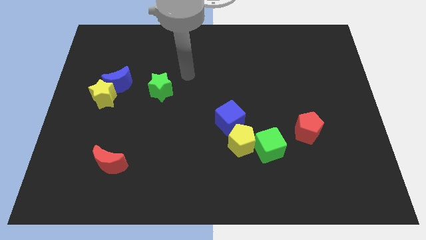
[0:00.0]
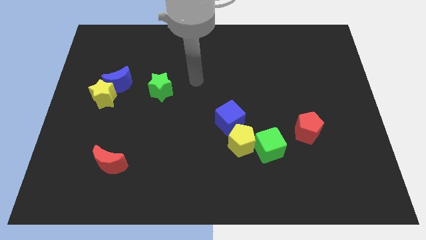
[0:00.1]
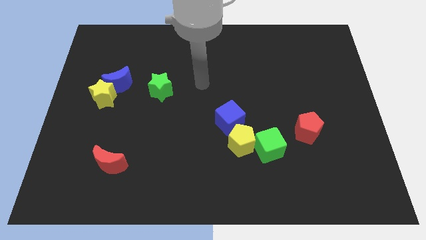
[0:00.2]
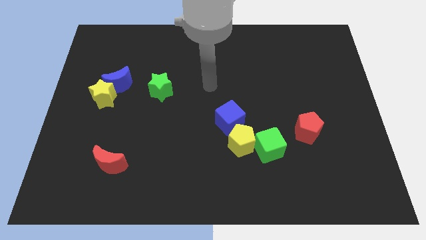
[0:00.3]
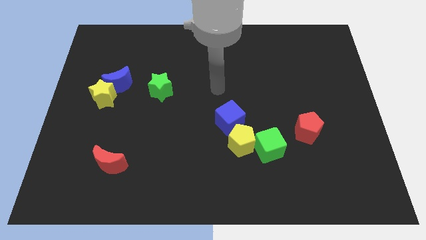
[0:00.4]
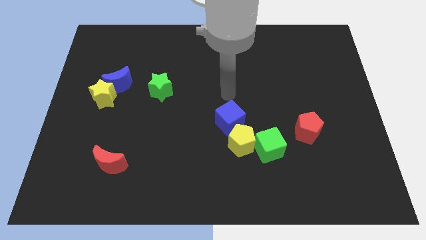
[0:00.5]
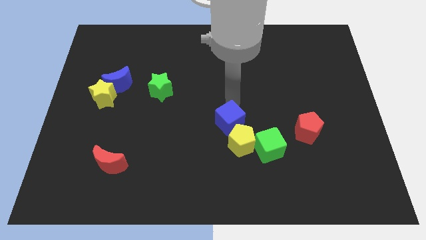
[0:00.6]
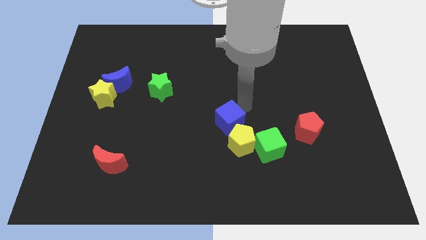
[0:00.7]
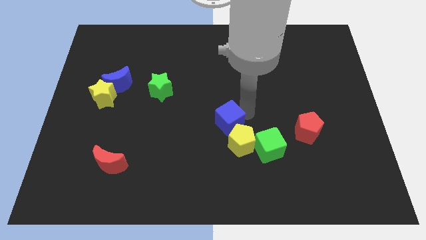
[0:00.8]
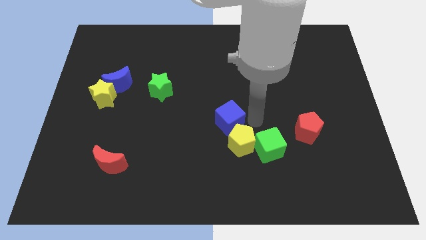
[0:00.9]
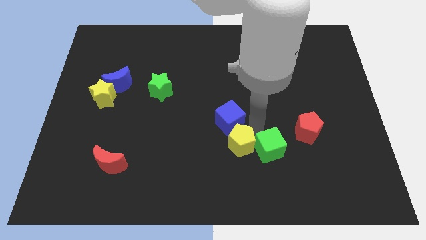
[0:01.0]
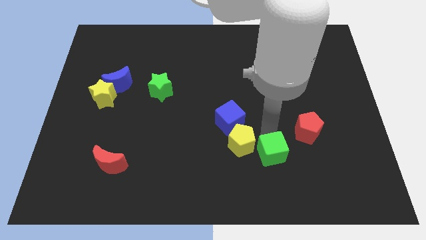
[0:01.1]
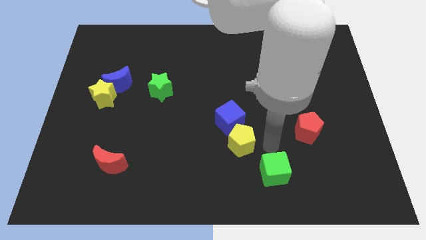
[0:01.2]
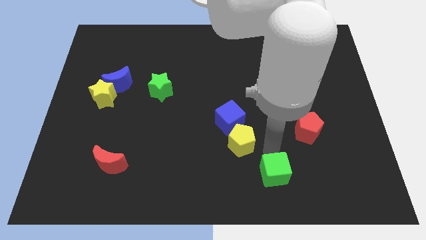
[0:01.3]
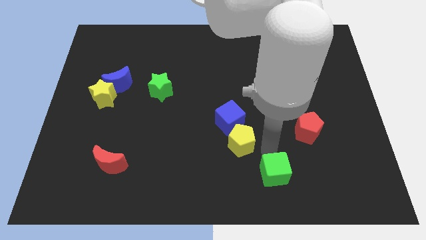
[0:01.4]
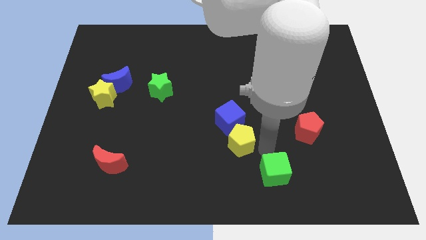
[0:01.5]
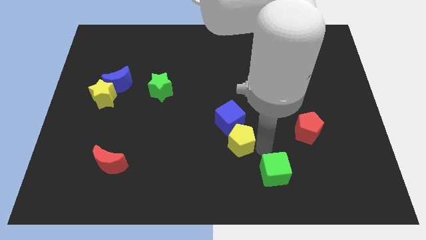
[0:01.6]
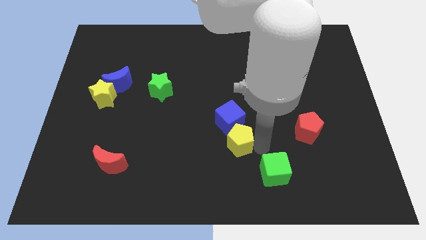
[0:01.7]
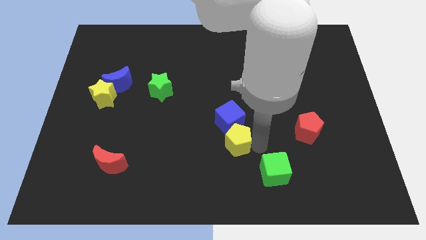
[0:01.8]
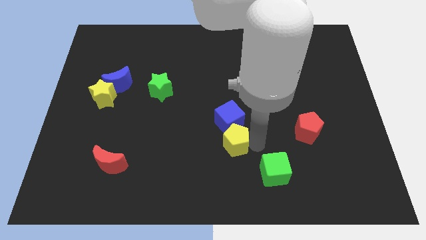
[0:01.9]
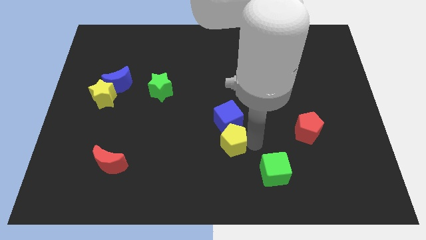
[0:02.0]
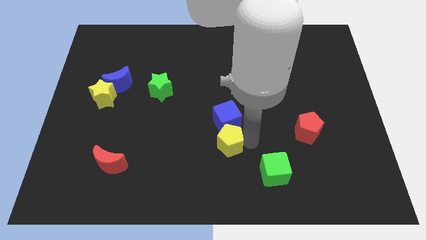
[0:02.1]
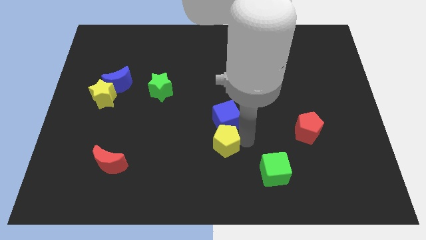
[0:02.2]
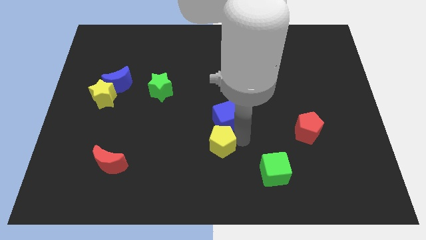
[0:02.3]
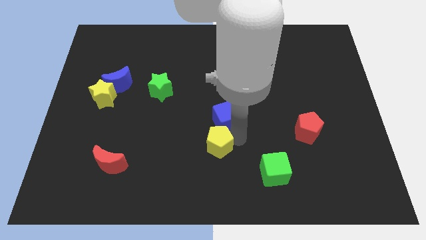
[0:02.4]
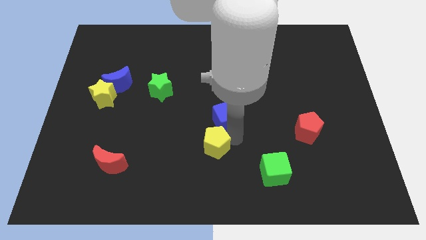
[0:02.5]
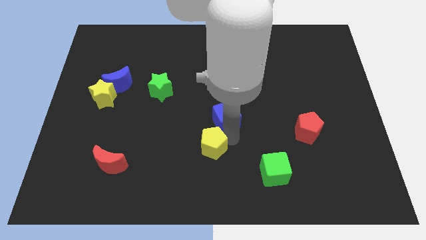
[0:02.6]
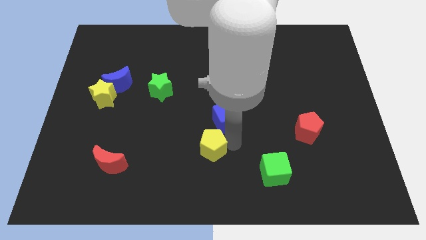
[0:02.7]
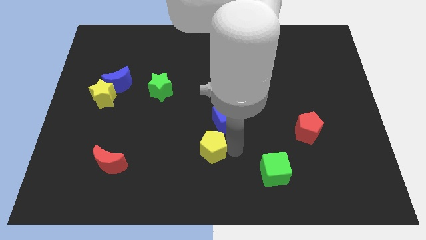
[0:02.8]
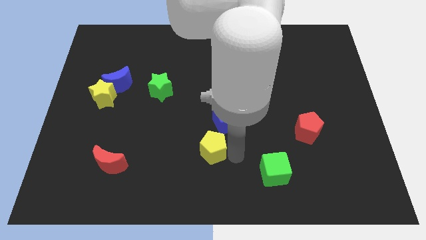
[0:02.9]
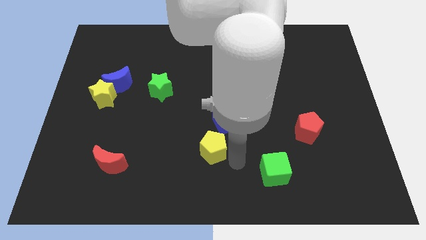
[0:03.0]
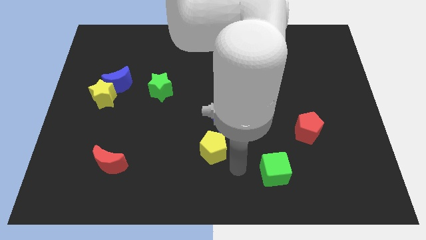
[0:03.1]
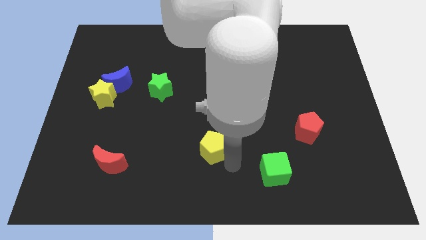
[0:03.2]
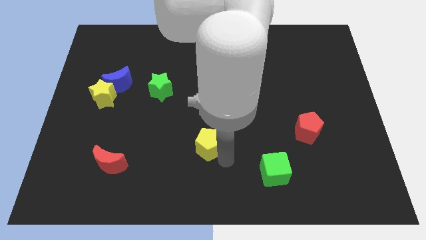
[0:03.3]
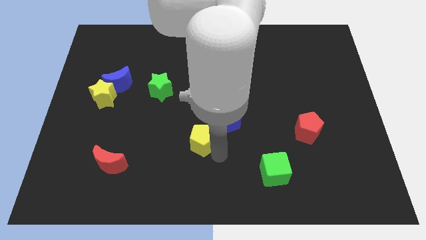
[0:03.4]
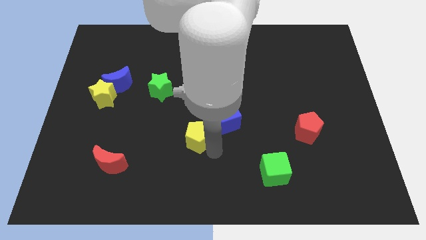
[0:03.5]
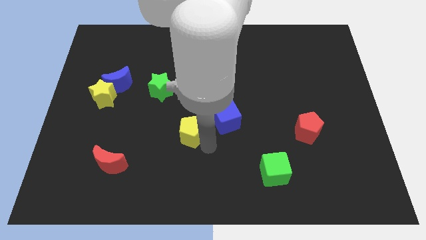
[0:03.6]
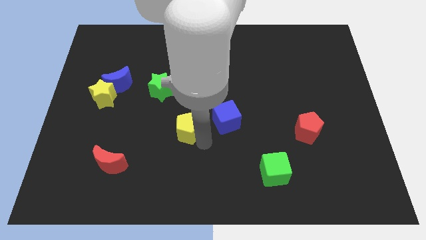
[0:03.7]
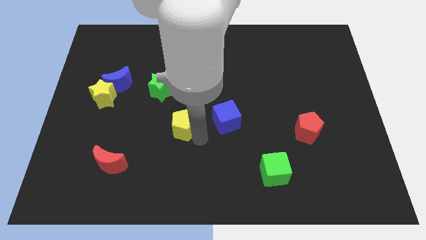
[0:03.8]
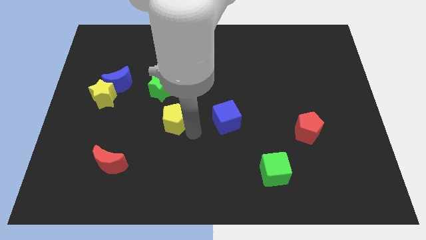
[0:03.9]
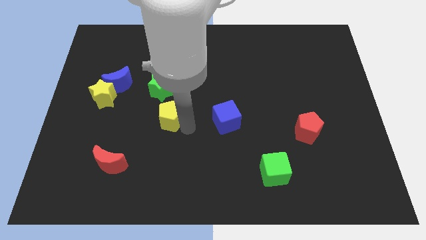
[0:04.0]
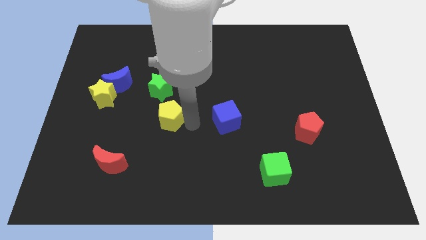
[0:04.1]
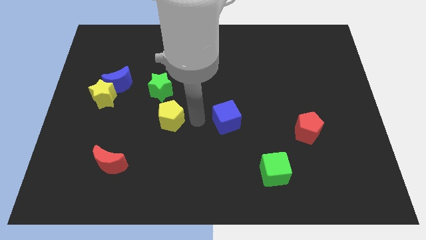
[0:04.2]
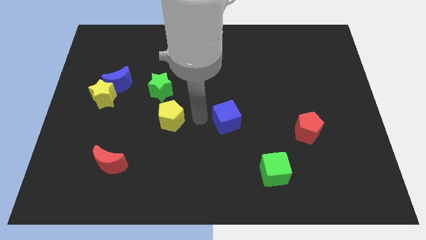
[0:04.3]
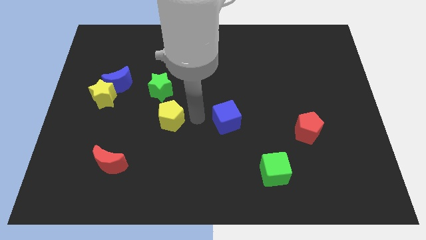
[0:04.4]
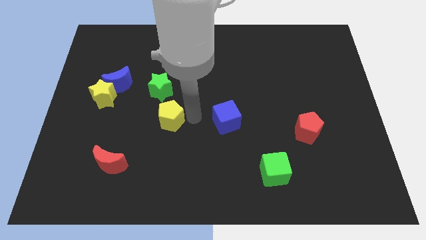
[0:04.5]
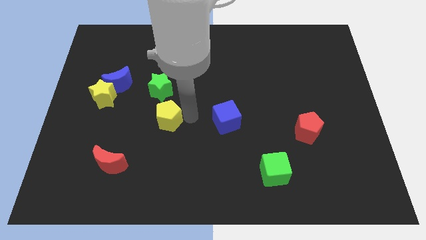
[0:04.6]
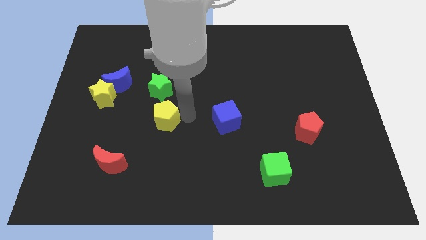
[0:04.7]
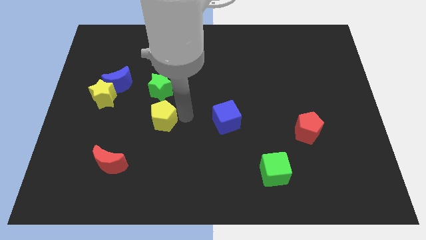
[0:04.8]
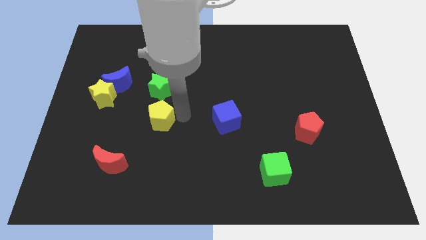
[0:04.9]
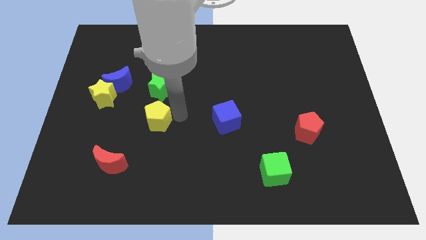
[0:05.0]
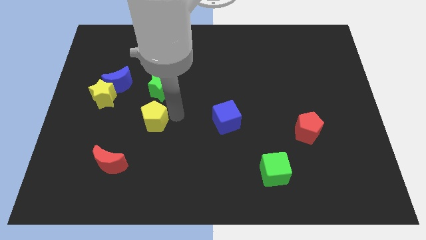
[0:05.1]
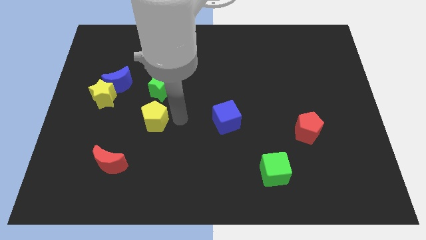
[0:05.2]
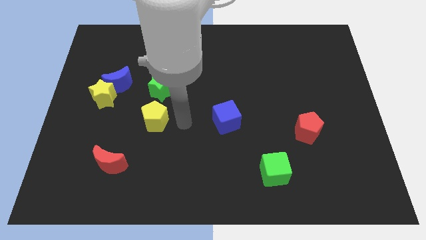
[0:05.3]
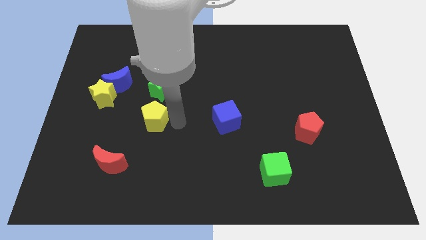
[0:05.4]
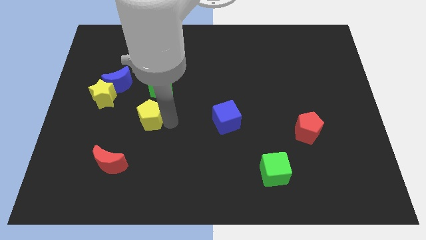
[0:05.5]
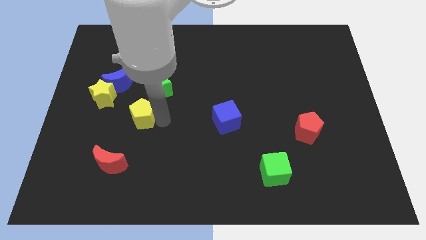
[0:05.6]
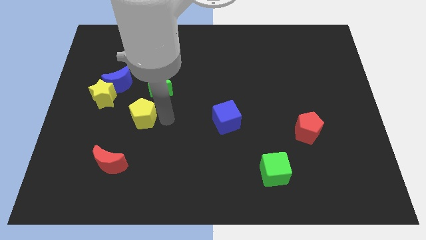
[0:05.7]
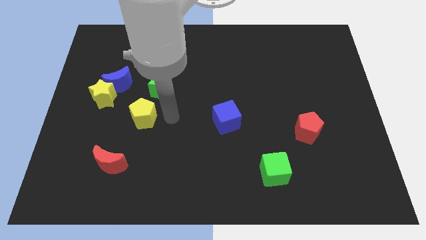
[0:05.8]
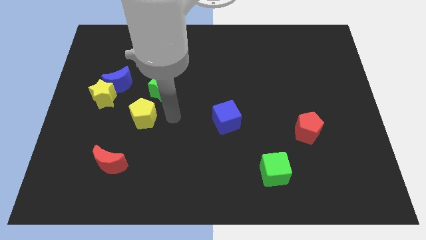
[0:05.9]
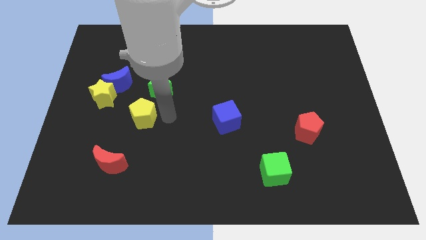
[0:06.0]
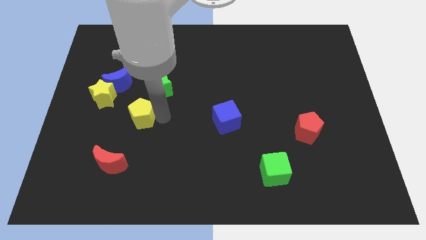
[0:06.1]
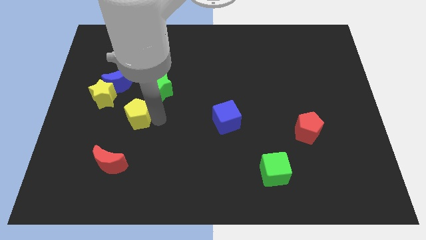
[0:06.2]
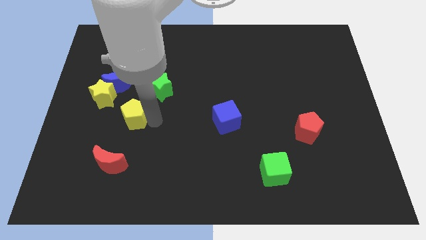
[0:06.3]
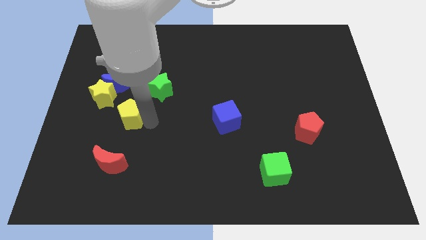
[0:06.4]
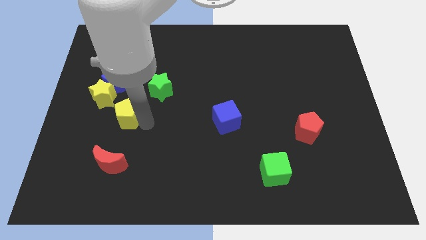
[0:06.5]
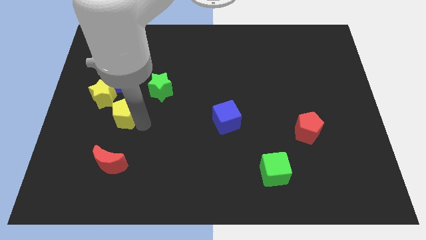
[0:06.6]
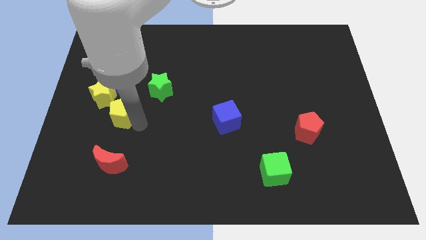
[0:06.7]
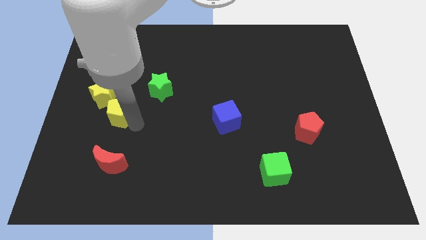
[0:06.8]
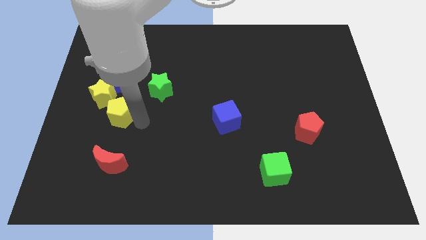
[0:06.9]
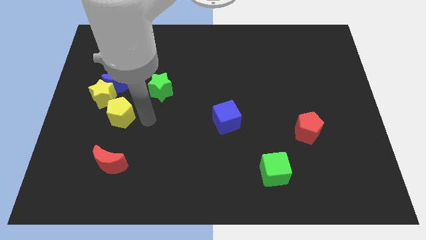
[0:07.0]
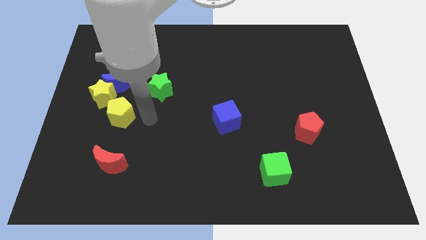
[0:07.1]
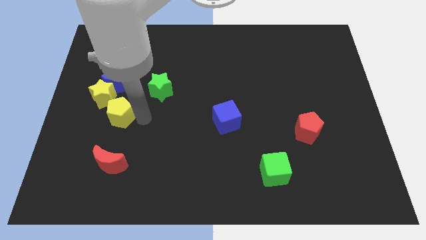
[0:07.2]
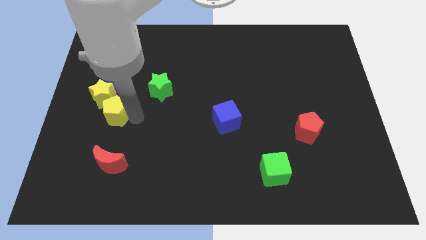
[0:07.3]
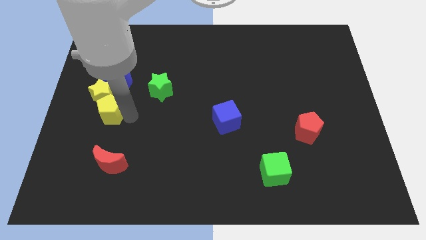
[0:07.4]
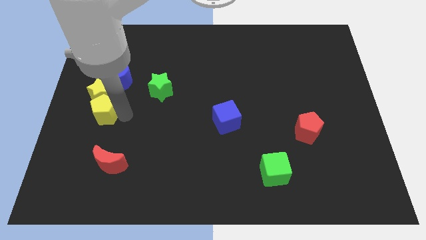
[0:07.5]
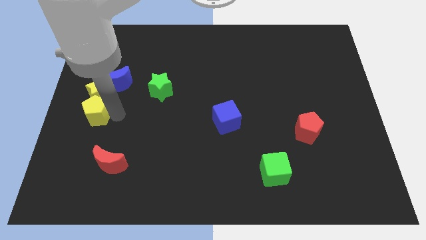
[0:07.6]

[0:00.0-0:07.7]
put the yellow pentagon to the left side
